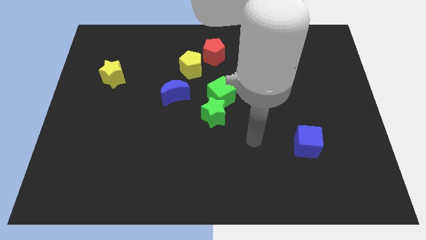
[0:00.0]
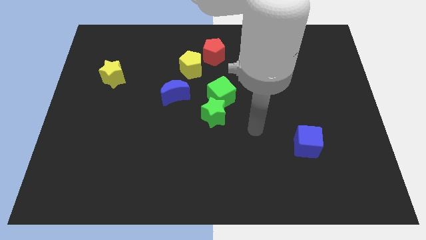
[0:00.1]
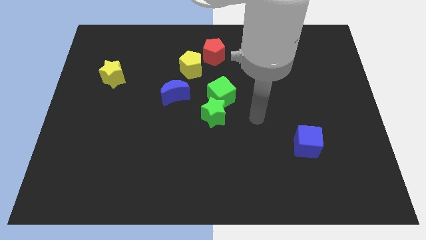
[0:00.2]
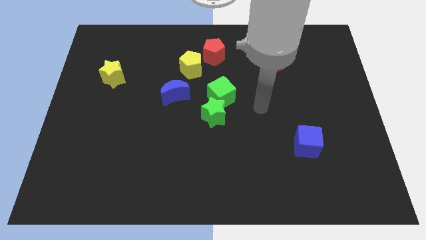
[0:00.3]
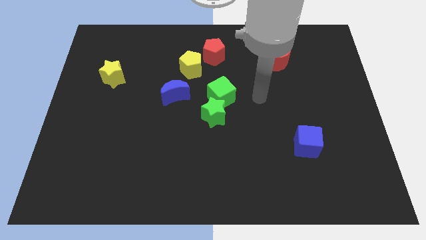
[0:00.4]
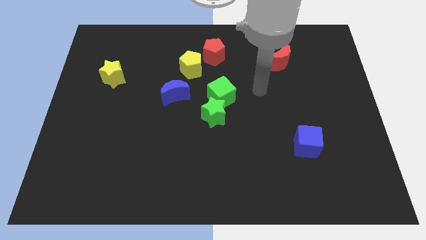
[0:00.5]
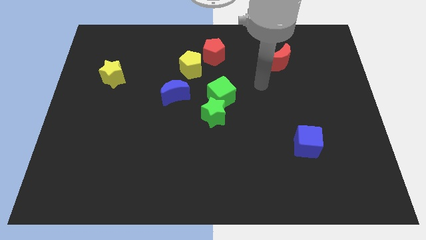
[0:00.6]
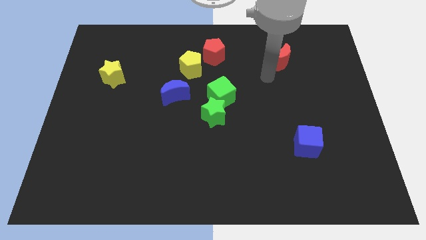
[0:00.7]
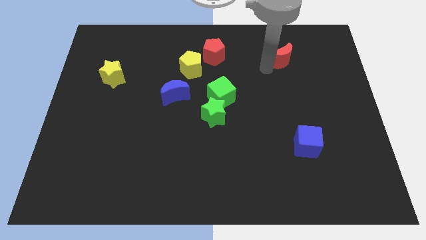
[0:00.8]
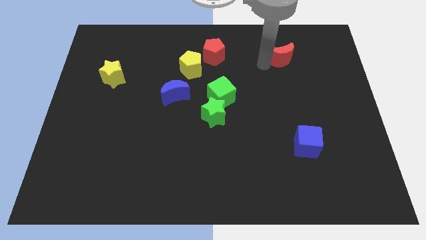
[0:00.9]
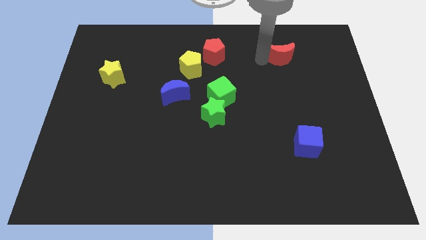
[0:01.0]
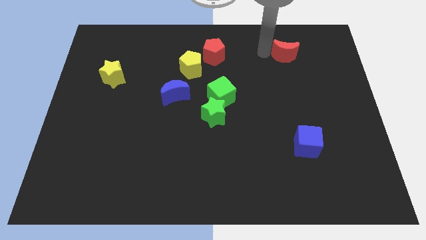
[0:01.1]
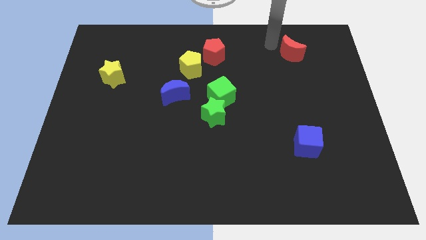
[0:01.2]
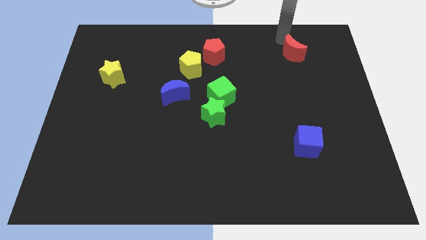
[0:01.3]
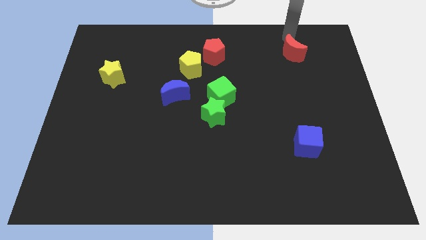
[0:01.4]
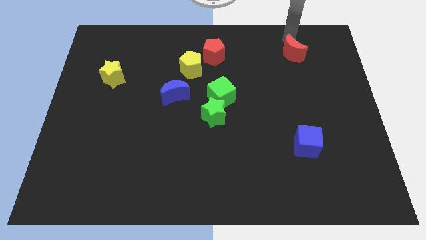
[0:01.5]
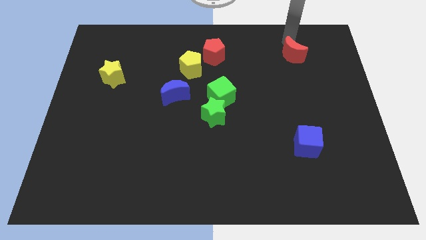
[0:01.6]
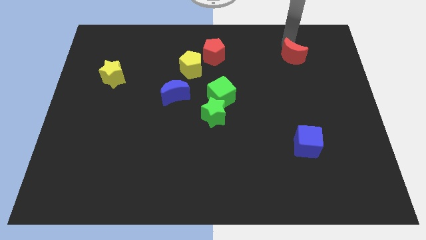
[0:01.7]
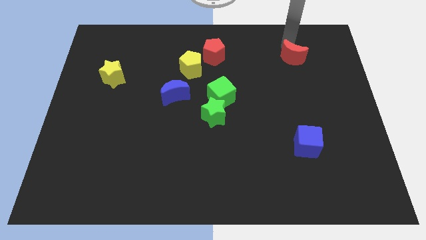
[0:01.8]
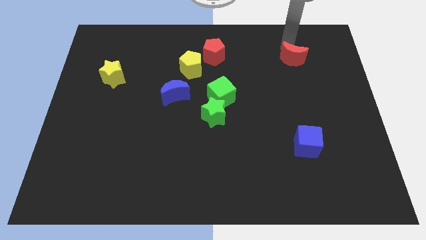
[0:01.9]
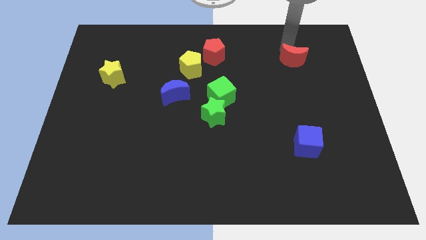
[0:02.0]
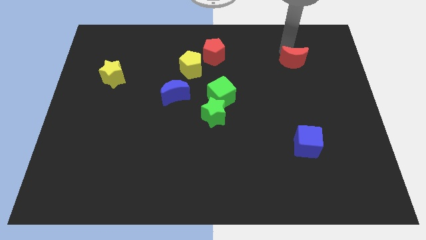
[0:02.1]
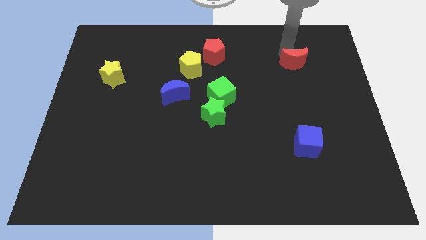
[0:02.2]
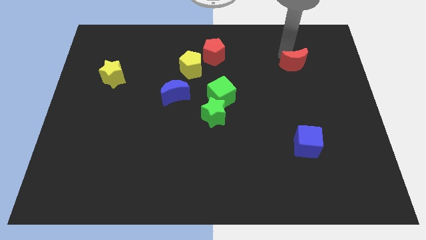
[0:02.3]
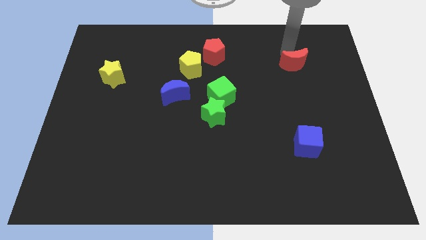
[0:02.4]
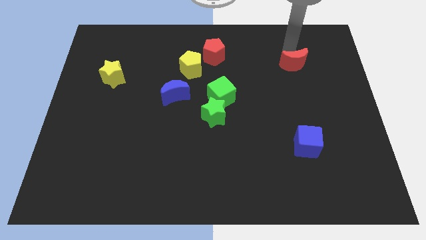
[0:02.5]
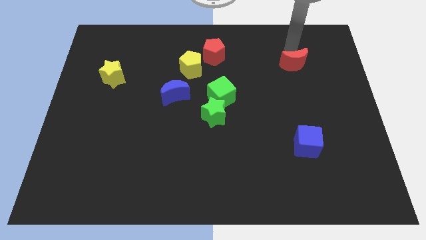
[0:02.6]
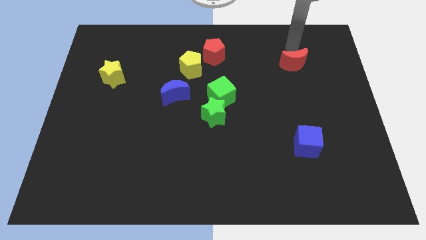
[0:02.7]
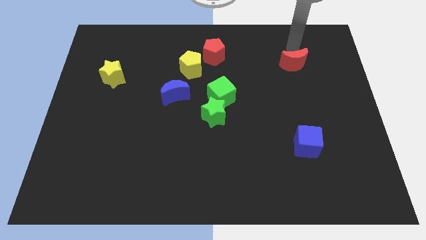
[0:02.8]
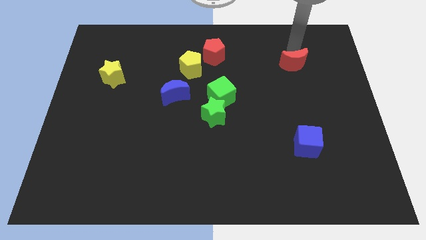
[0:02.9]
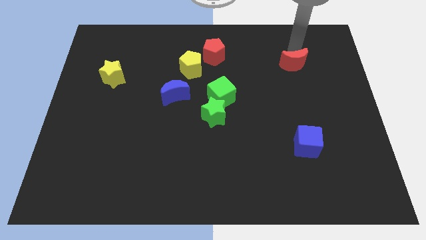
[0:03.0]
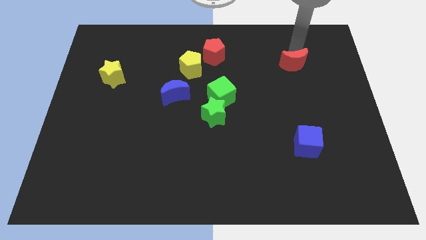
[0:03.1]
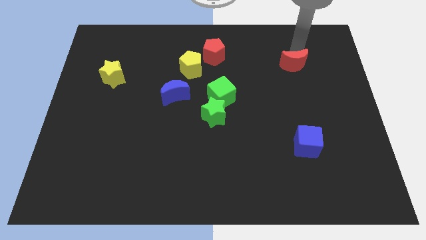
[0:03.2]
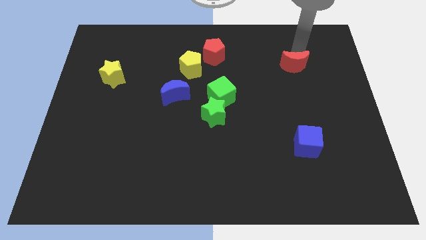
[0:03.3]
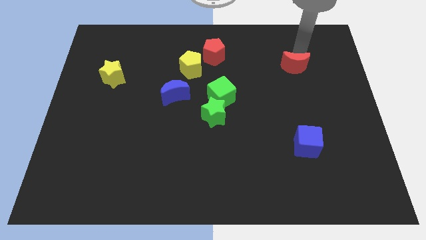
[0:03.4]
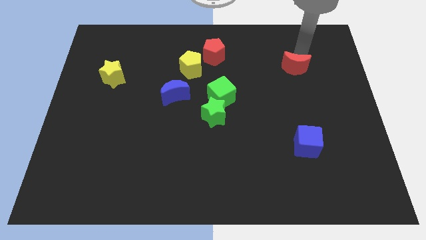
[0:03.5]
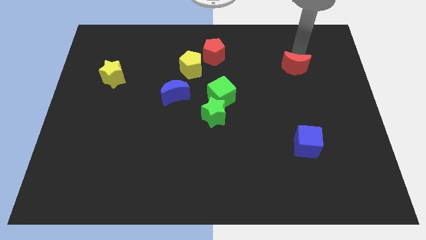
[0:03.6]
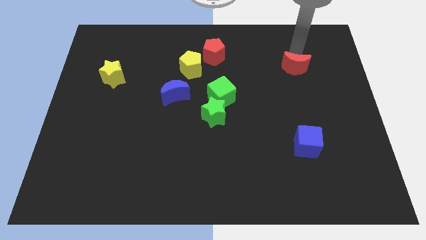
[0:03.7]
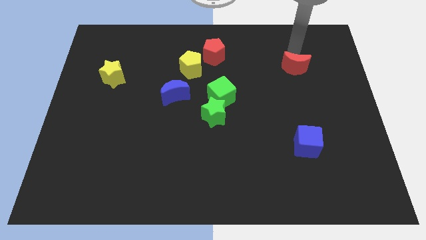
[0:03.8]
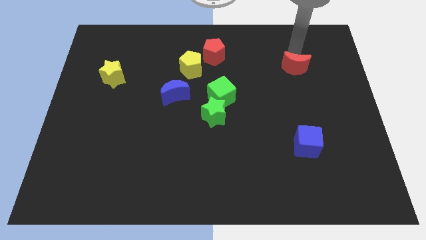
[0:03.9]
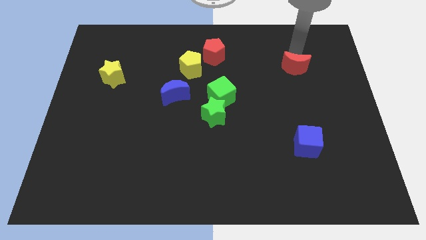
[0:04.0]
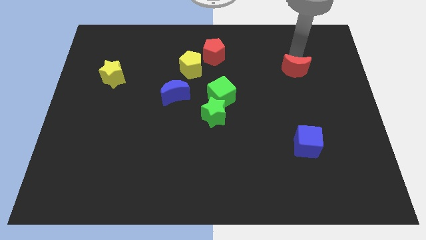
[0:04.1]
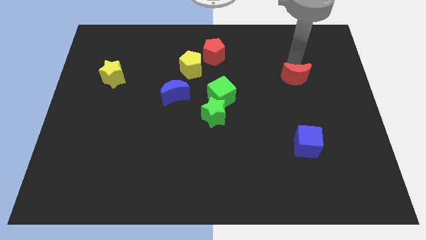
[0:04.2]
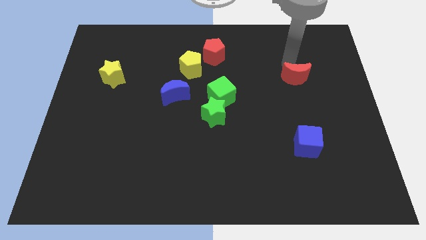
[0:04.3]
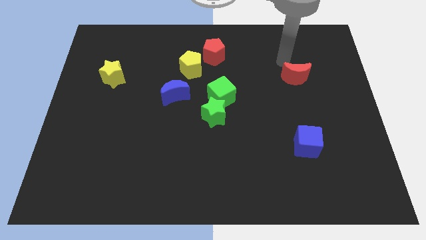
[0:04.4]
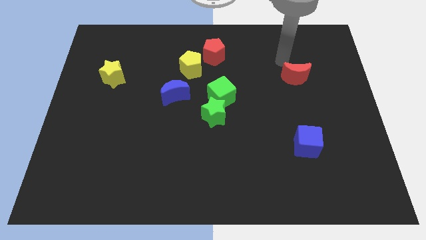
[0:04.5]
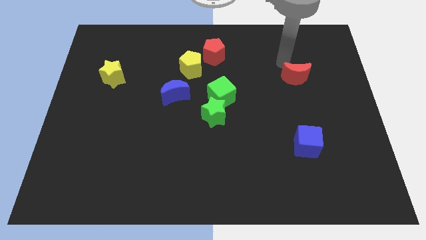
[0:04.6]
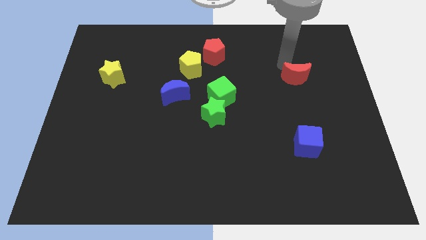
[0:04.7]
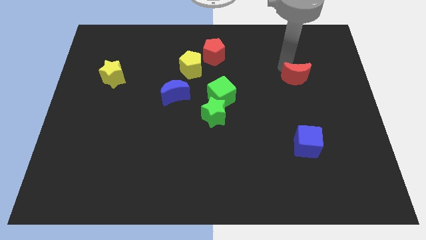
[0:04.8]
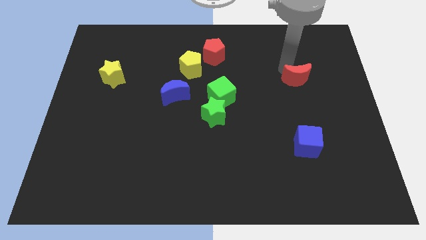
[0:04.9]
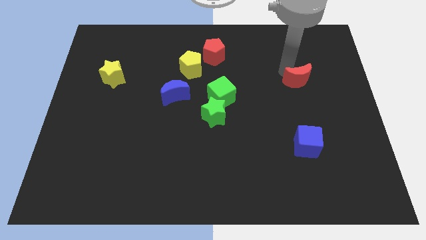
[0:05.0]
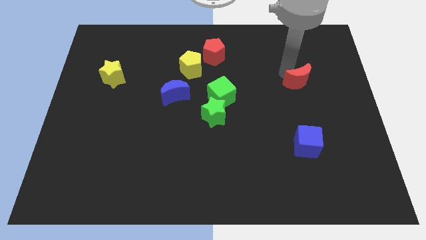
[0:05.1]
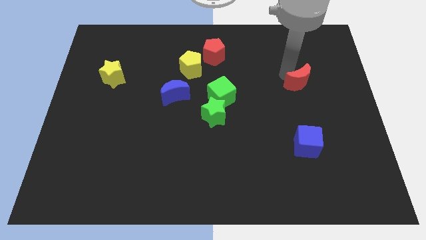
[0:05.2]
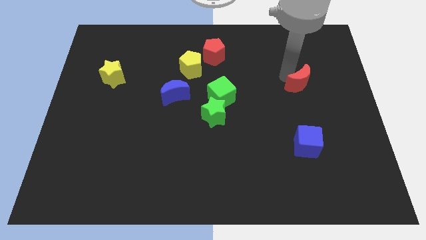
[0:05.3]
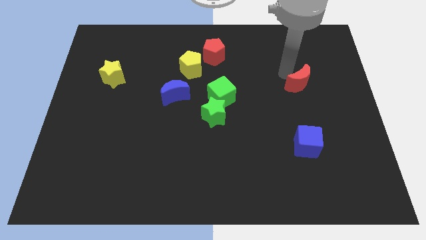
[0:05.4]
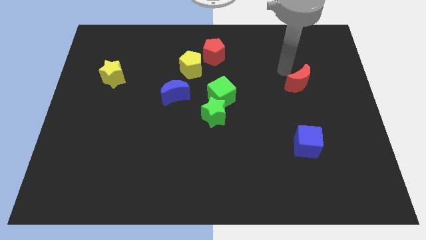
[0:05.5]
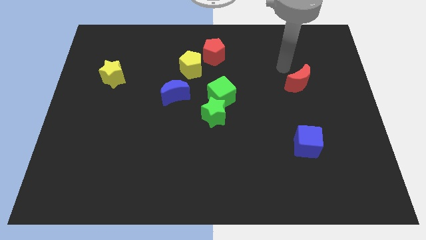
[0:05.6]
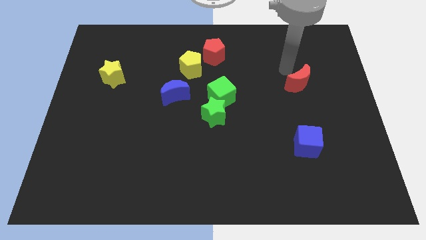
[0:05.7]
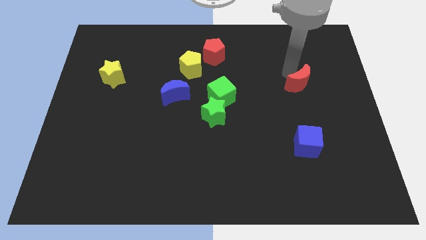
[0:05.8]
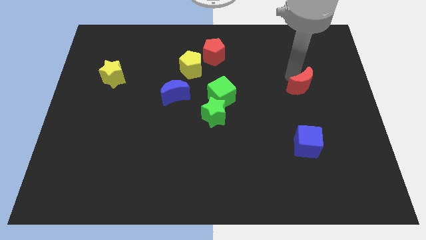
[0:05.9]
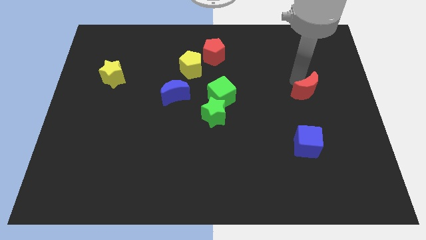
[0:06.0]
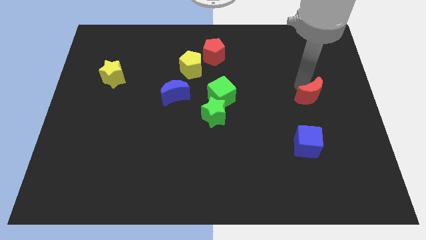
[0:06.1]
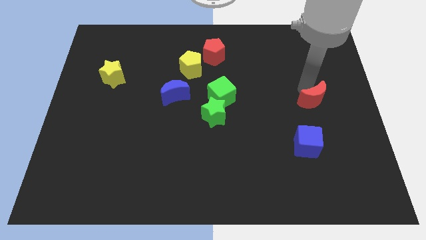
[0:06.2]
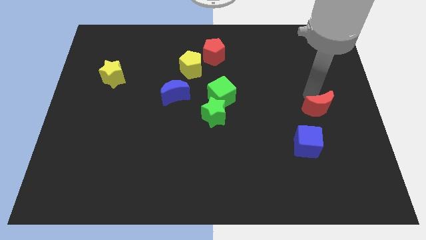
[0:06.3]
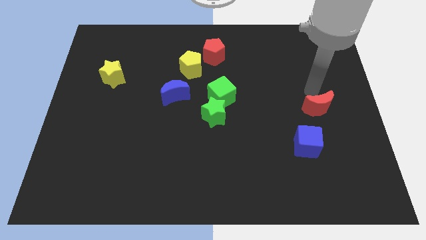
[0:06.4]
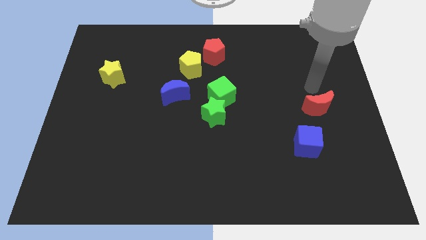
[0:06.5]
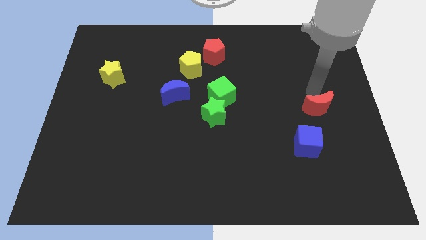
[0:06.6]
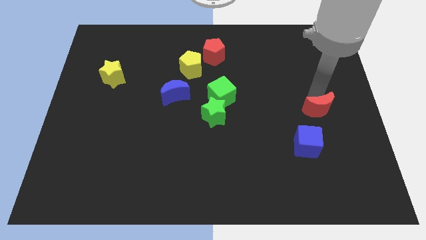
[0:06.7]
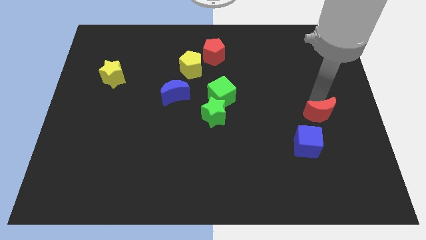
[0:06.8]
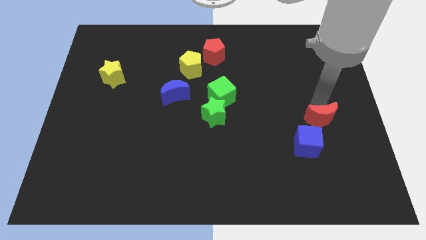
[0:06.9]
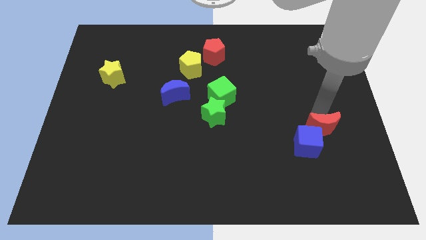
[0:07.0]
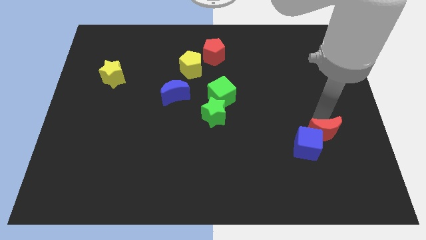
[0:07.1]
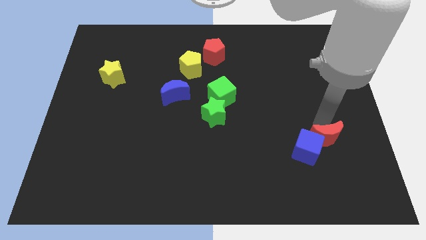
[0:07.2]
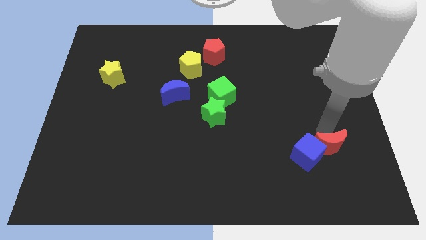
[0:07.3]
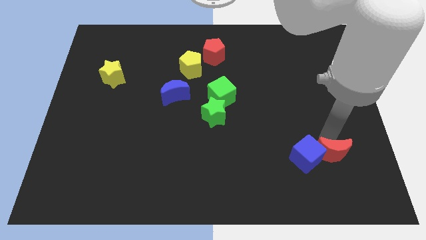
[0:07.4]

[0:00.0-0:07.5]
put the red moon to the bottom right of the blue cube
